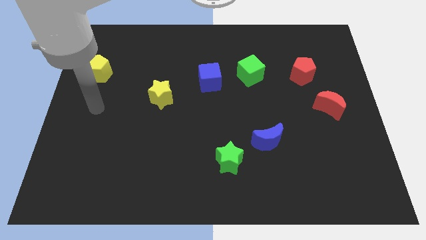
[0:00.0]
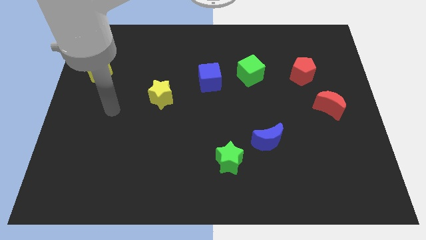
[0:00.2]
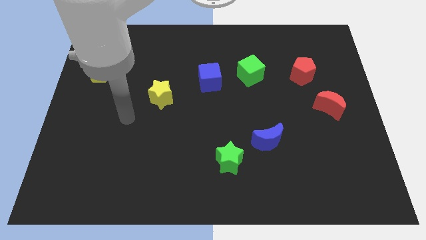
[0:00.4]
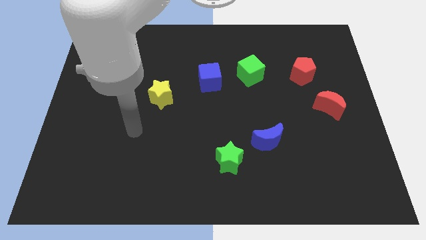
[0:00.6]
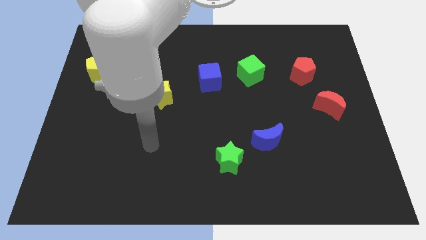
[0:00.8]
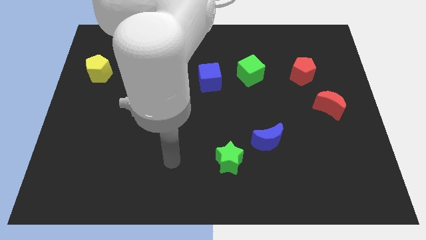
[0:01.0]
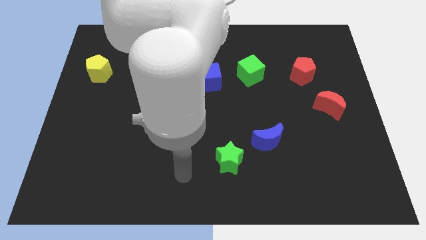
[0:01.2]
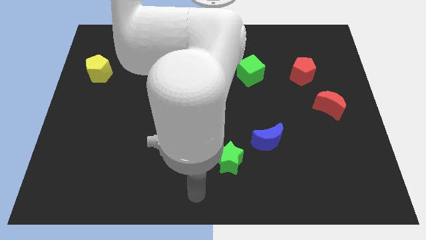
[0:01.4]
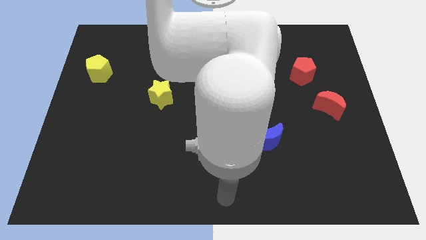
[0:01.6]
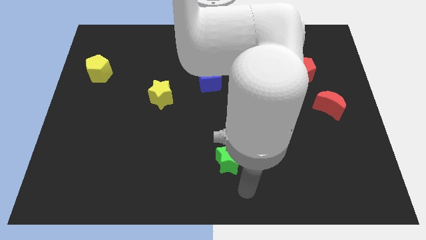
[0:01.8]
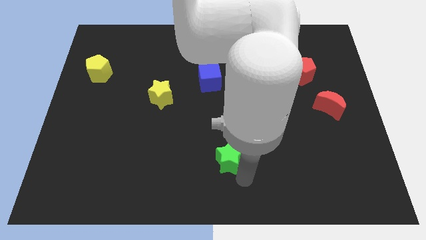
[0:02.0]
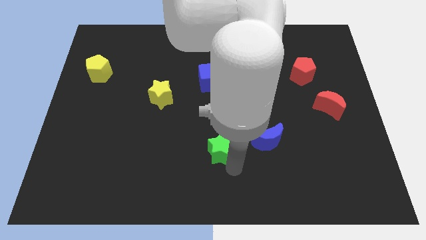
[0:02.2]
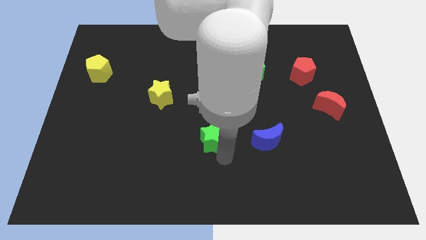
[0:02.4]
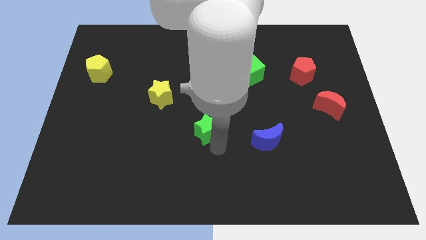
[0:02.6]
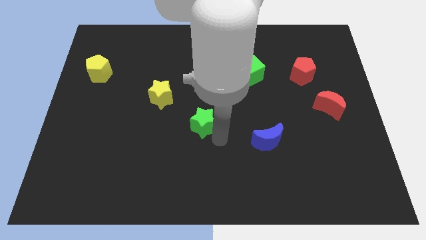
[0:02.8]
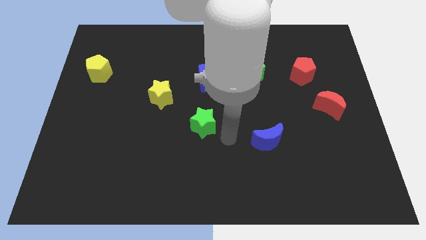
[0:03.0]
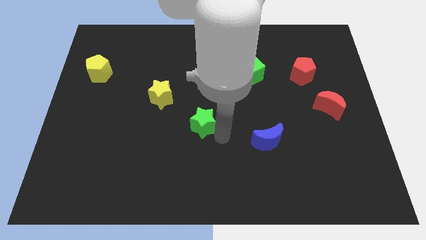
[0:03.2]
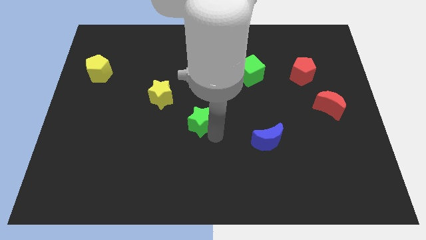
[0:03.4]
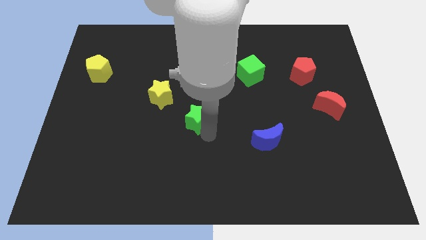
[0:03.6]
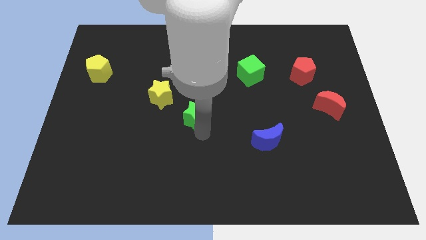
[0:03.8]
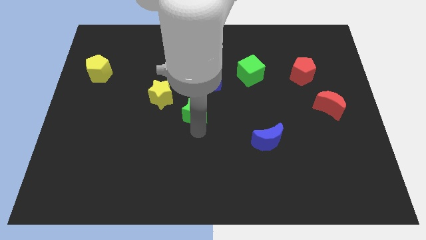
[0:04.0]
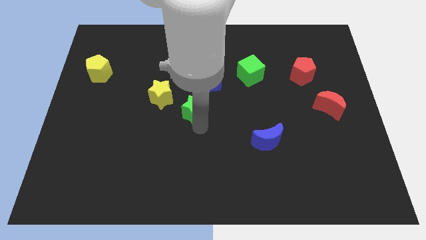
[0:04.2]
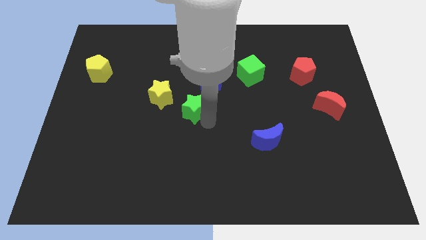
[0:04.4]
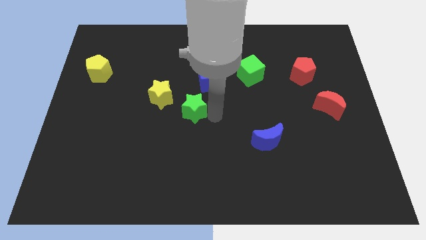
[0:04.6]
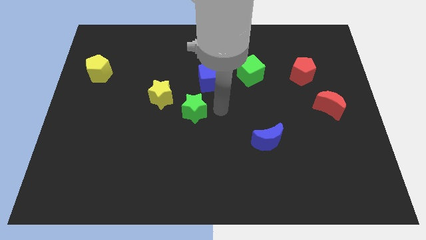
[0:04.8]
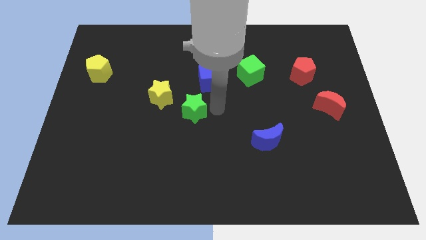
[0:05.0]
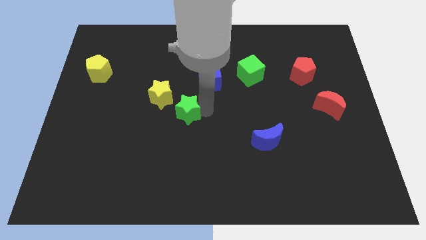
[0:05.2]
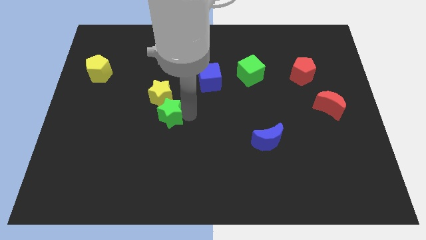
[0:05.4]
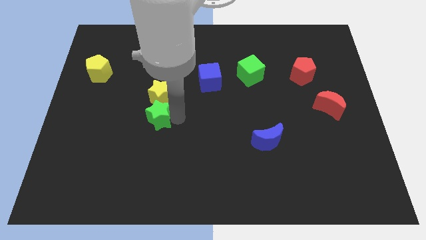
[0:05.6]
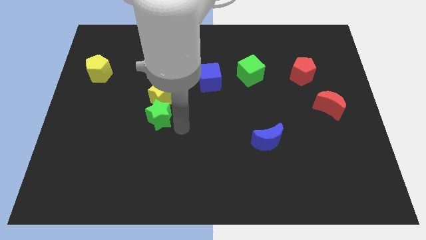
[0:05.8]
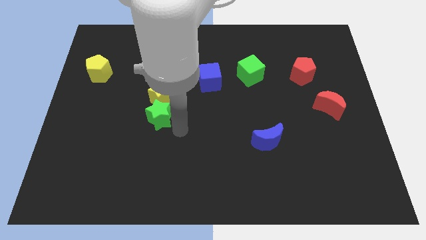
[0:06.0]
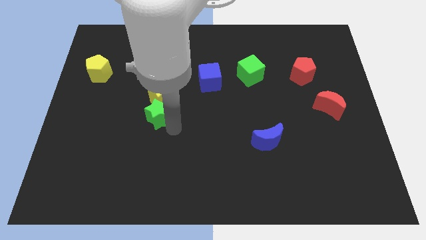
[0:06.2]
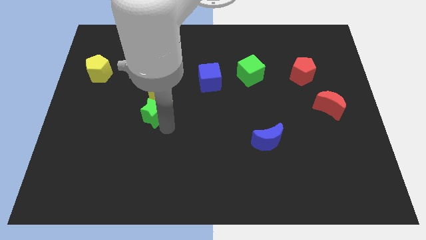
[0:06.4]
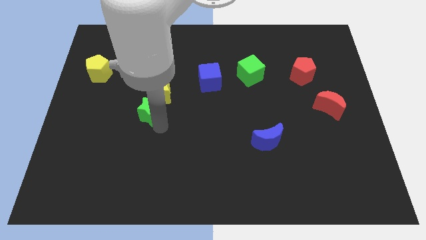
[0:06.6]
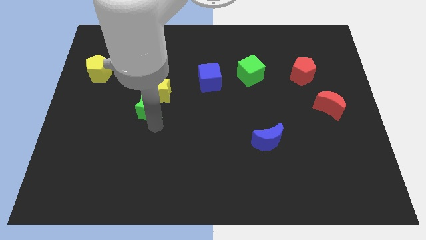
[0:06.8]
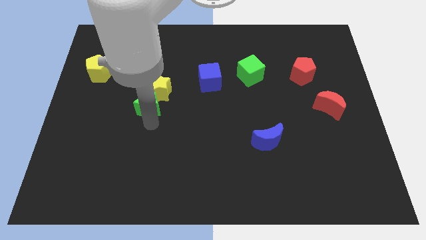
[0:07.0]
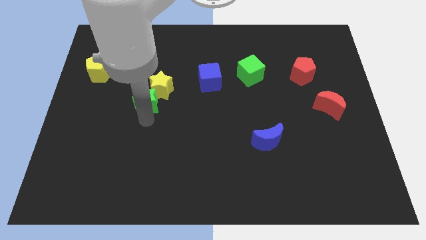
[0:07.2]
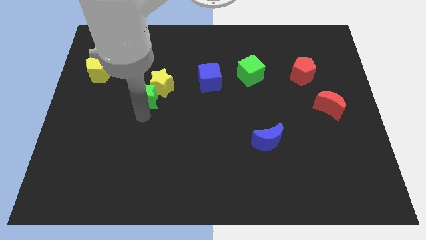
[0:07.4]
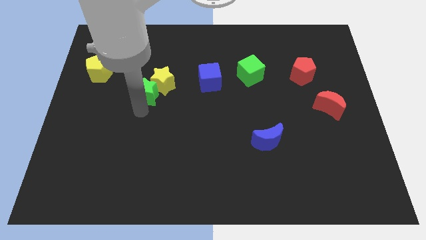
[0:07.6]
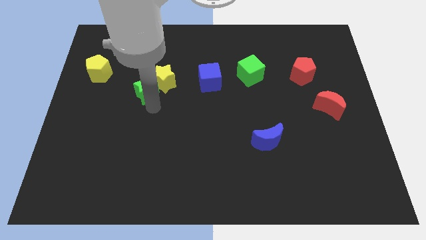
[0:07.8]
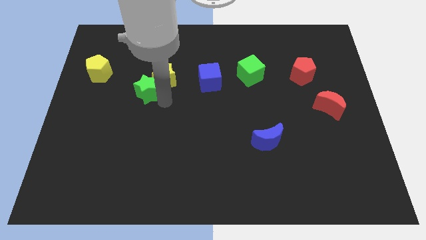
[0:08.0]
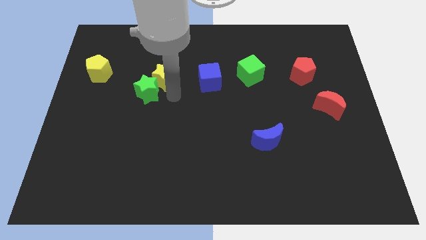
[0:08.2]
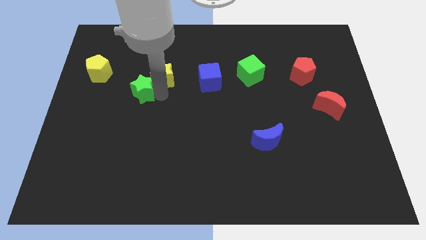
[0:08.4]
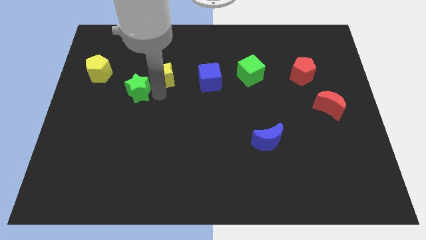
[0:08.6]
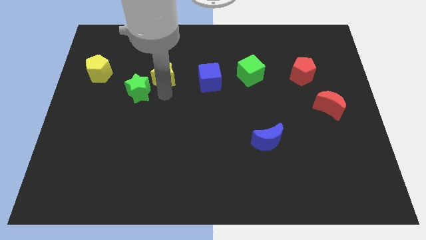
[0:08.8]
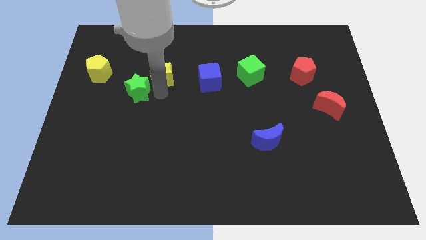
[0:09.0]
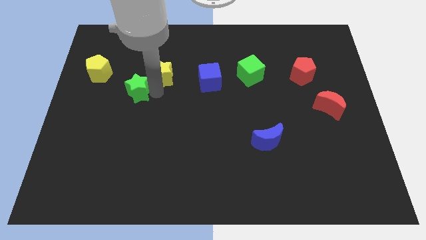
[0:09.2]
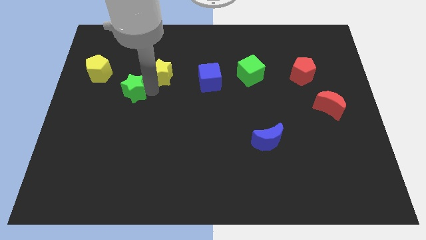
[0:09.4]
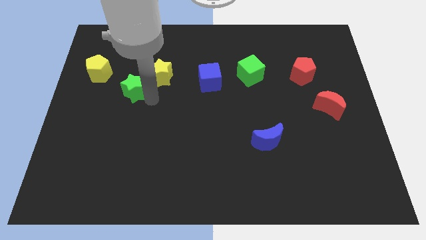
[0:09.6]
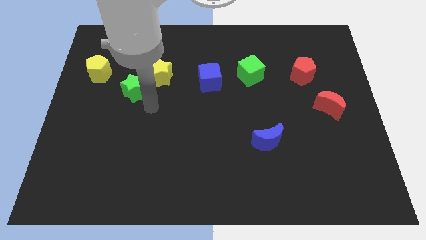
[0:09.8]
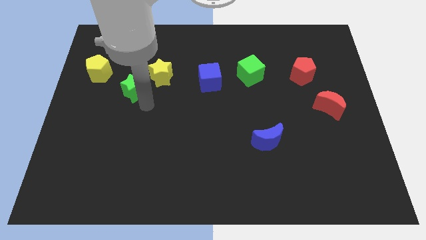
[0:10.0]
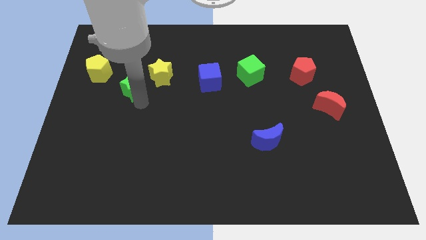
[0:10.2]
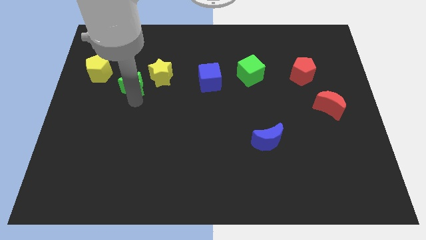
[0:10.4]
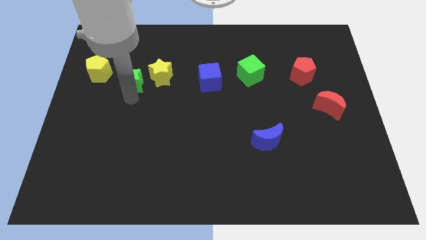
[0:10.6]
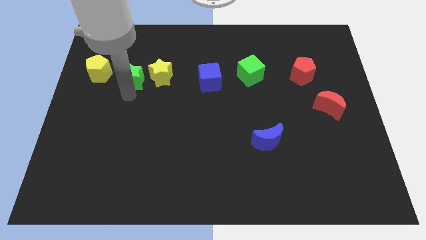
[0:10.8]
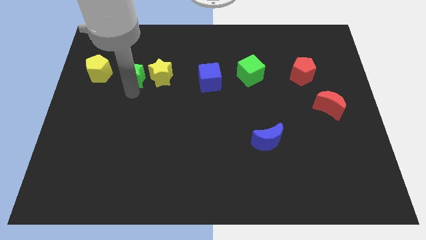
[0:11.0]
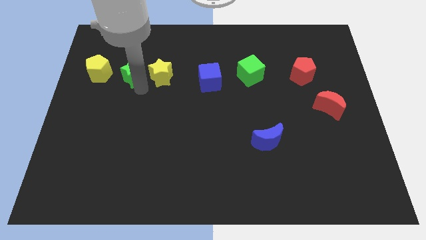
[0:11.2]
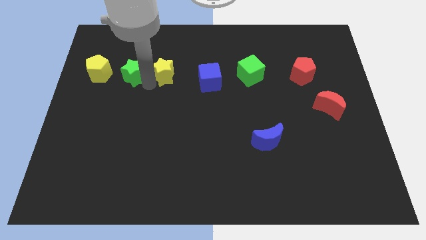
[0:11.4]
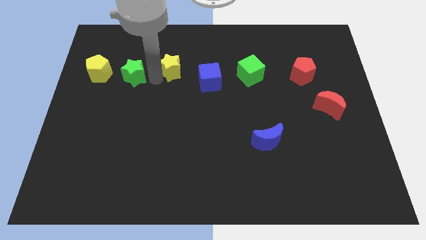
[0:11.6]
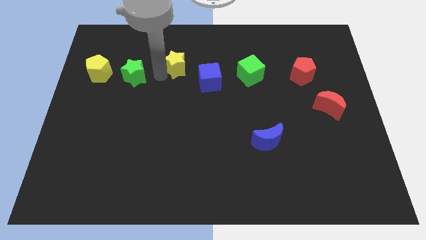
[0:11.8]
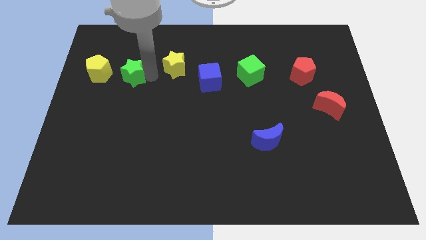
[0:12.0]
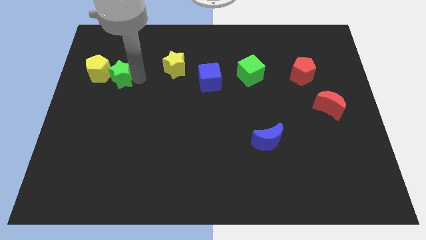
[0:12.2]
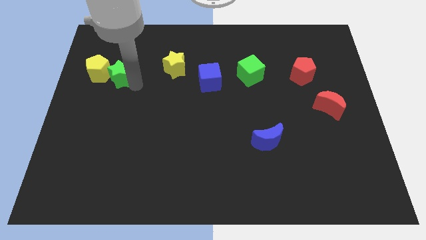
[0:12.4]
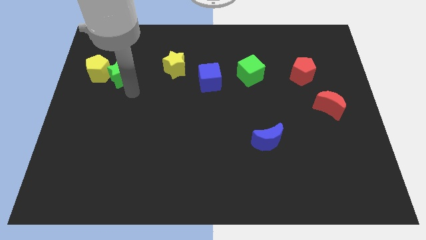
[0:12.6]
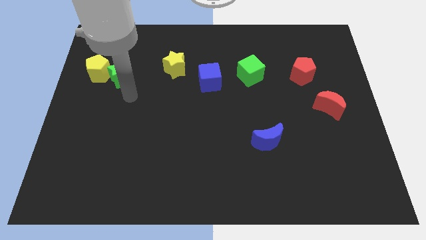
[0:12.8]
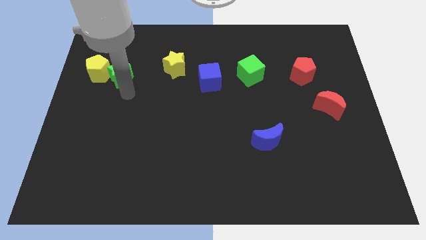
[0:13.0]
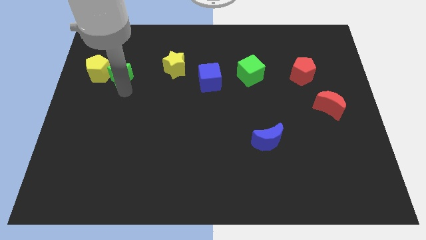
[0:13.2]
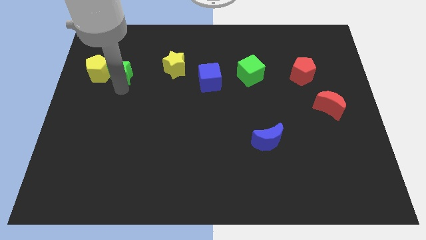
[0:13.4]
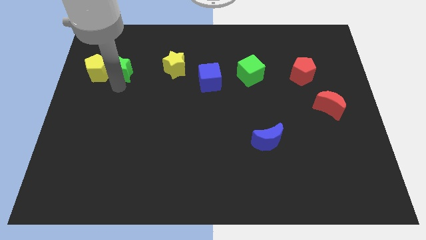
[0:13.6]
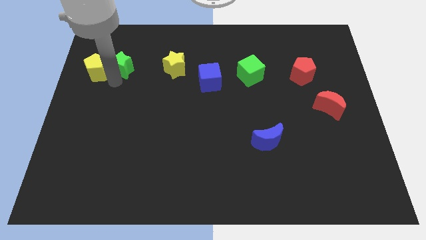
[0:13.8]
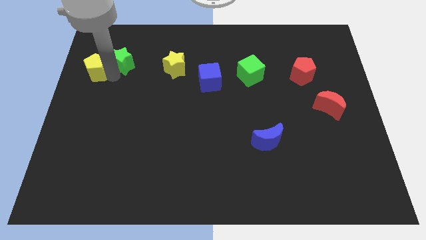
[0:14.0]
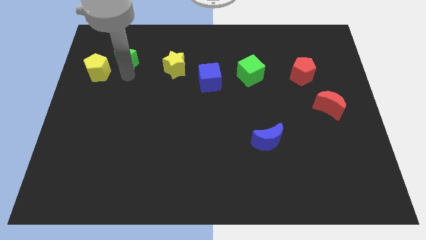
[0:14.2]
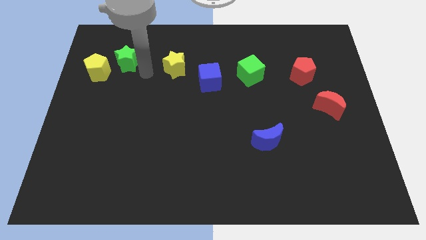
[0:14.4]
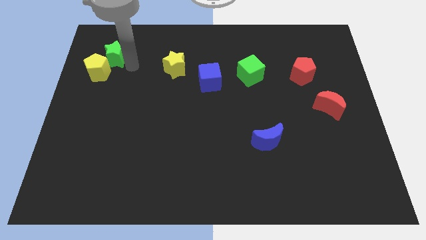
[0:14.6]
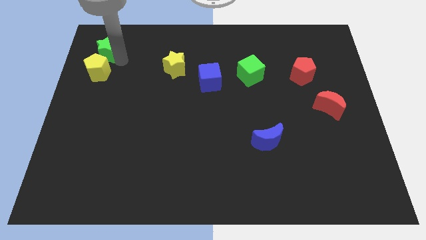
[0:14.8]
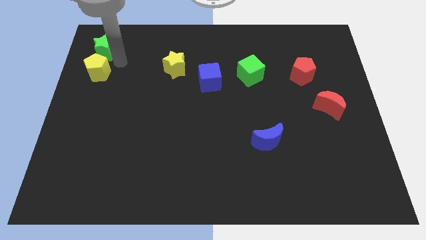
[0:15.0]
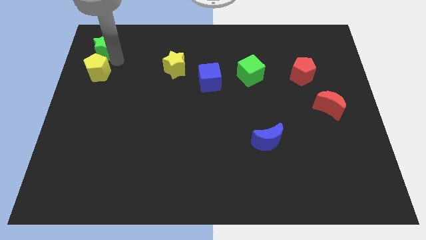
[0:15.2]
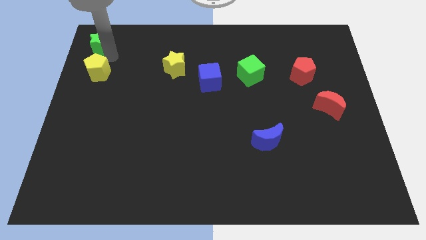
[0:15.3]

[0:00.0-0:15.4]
push the green star to the top left corner
